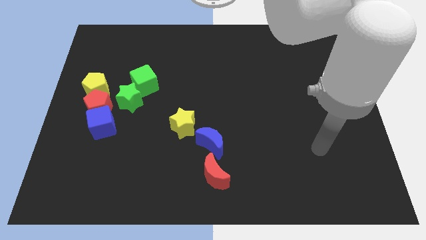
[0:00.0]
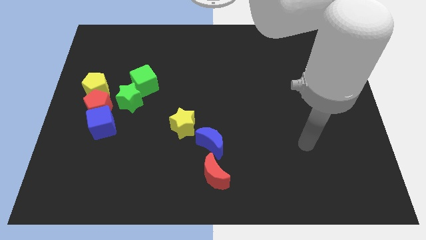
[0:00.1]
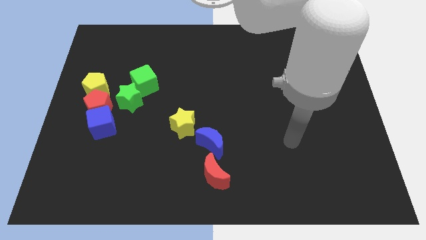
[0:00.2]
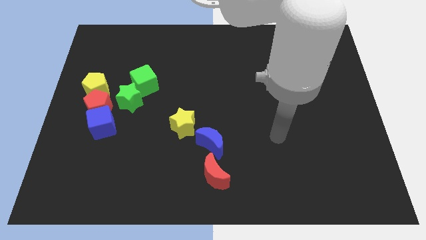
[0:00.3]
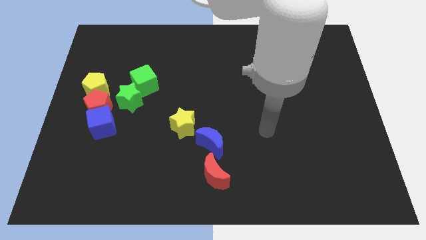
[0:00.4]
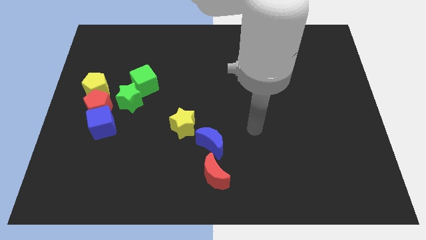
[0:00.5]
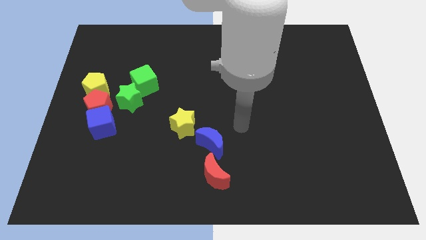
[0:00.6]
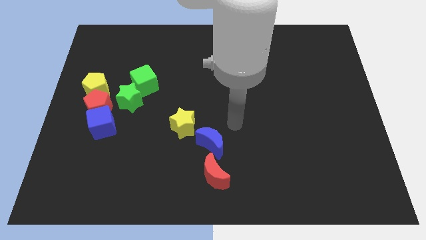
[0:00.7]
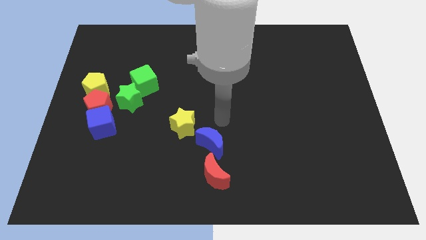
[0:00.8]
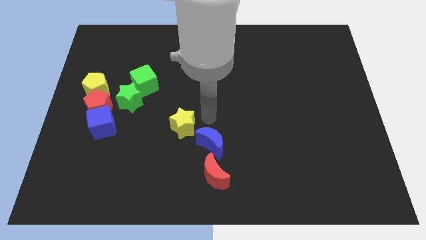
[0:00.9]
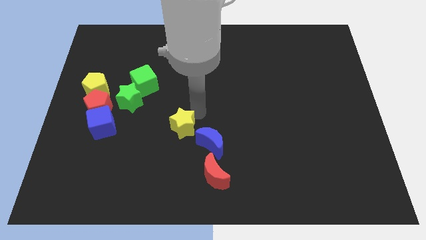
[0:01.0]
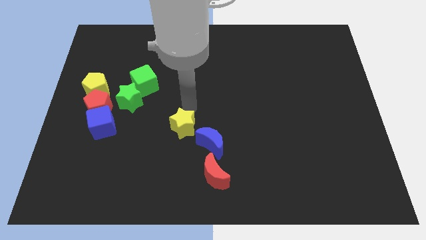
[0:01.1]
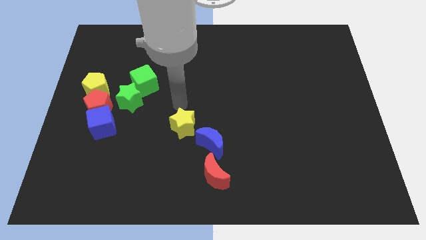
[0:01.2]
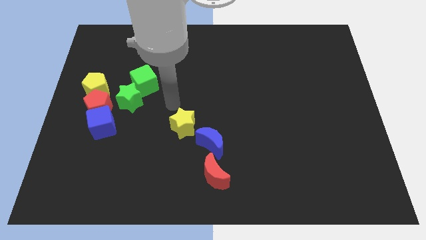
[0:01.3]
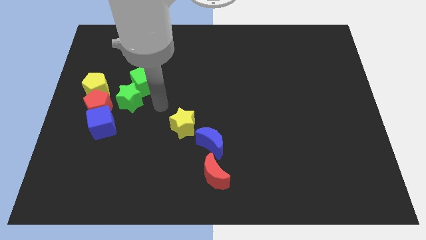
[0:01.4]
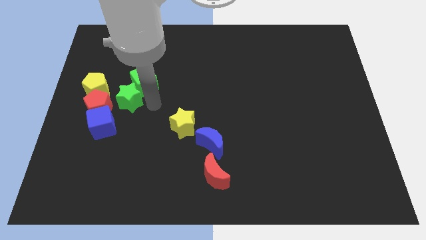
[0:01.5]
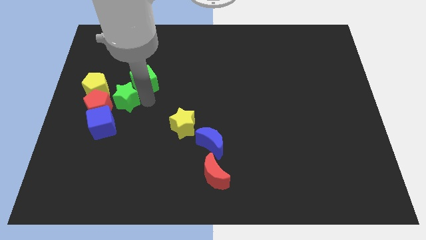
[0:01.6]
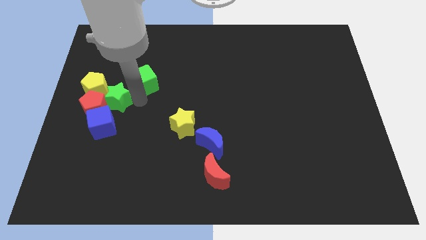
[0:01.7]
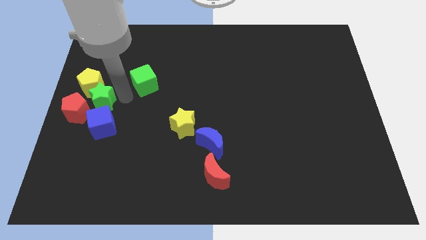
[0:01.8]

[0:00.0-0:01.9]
move the green cube away from the green star

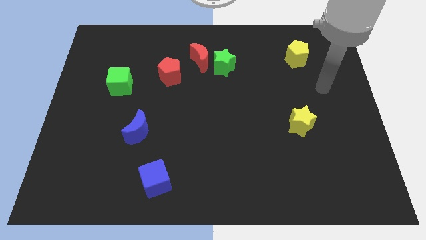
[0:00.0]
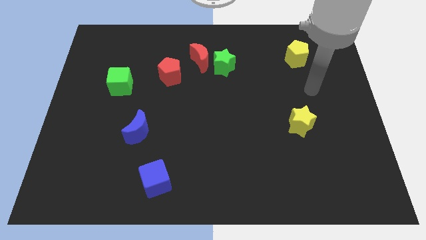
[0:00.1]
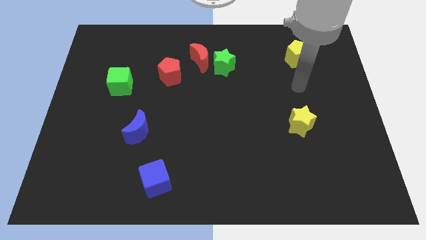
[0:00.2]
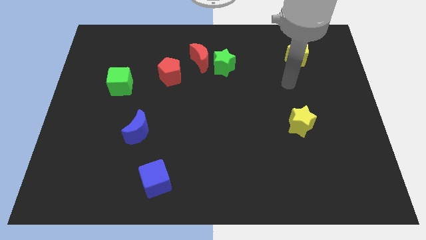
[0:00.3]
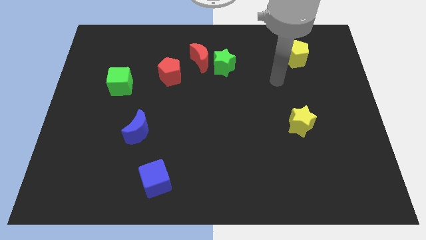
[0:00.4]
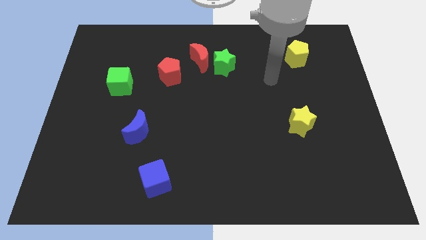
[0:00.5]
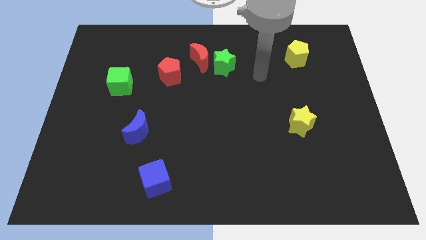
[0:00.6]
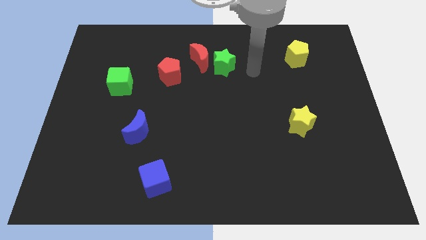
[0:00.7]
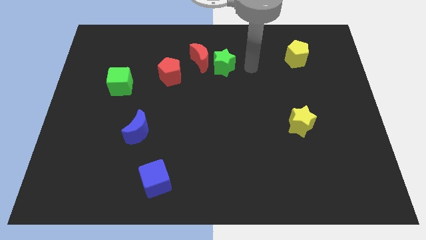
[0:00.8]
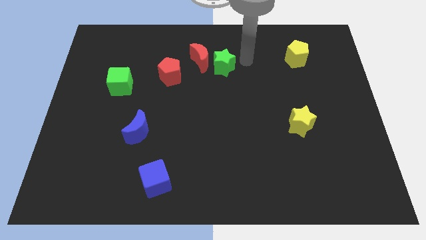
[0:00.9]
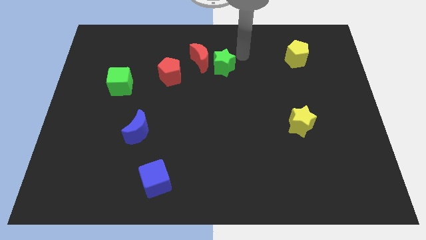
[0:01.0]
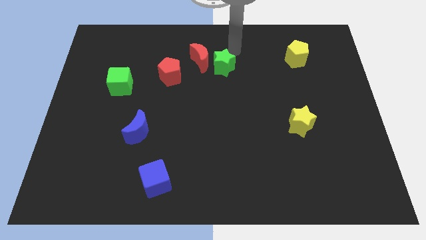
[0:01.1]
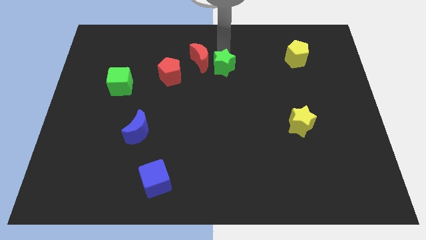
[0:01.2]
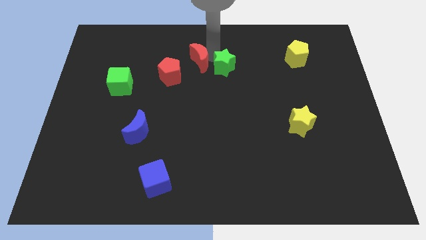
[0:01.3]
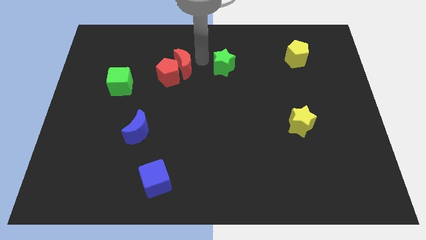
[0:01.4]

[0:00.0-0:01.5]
move the green star away from the red moon

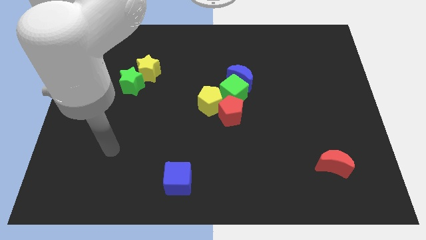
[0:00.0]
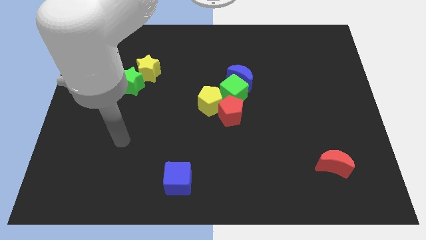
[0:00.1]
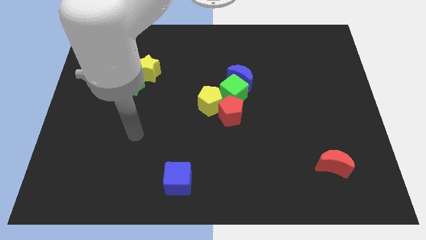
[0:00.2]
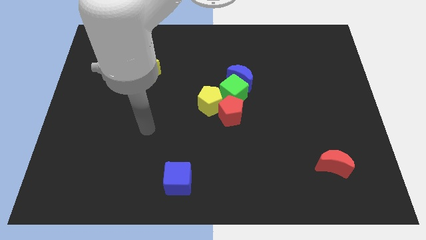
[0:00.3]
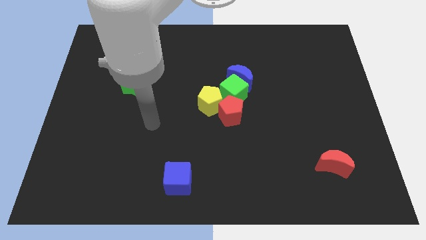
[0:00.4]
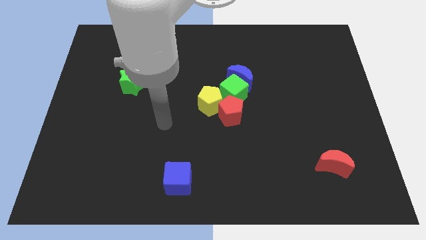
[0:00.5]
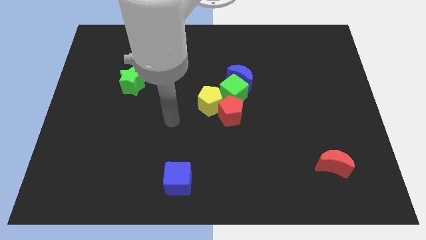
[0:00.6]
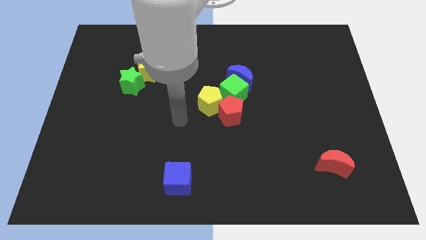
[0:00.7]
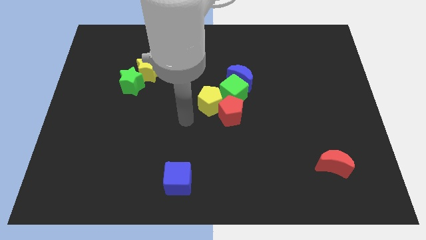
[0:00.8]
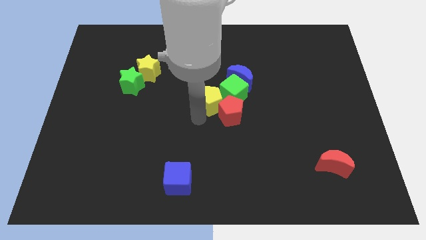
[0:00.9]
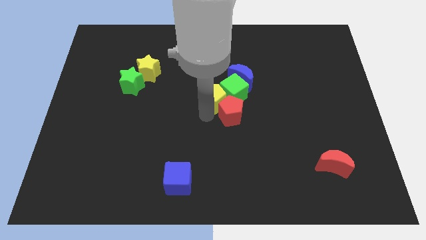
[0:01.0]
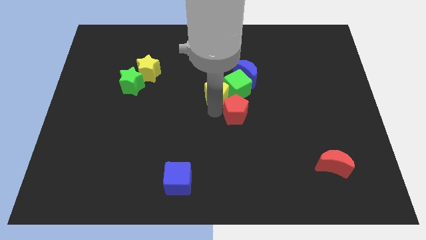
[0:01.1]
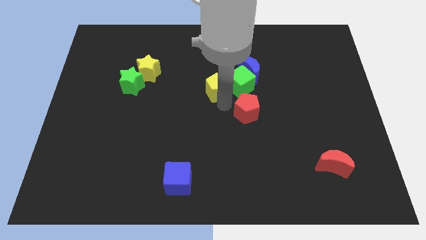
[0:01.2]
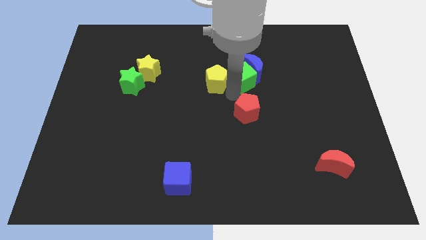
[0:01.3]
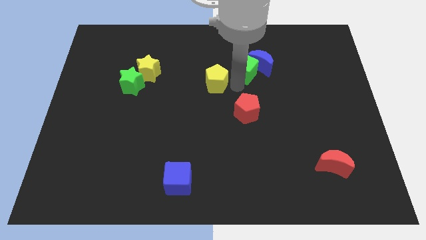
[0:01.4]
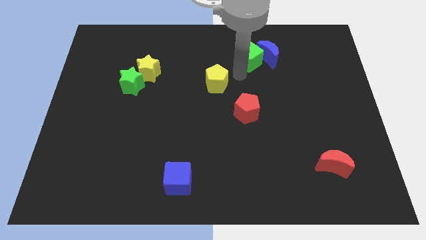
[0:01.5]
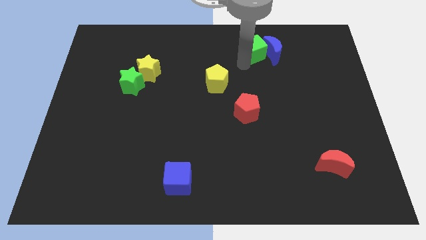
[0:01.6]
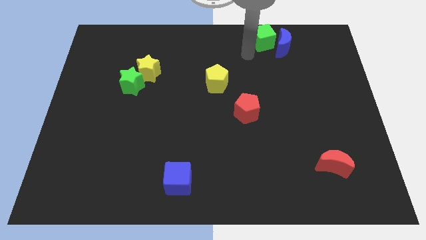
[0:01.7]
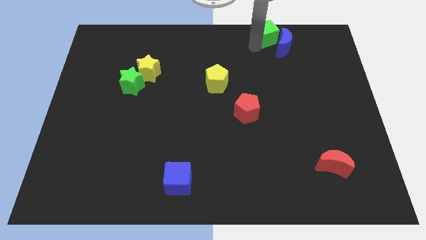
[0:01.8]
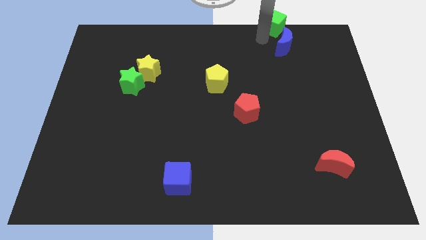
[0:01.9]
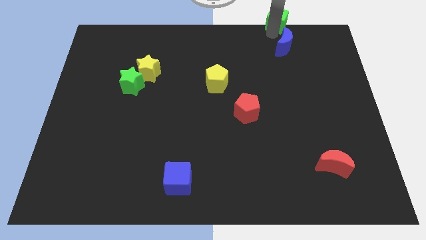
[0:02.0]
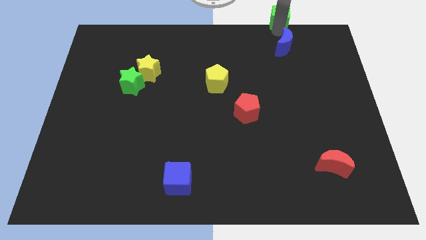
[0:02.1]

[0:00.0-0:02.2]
move the blue moon away from the green cube

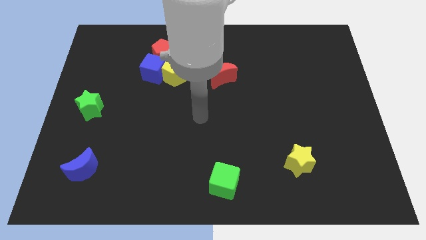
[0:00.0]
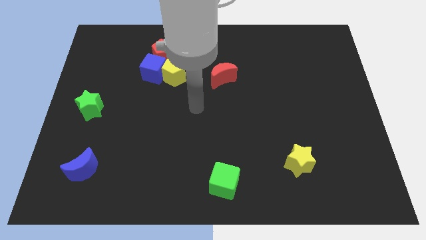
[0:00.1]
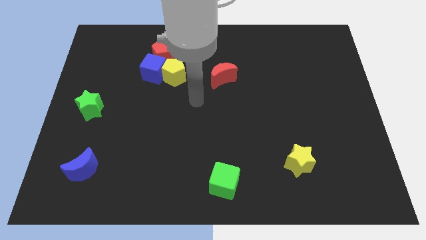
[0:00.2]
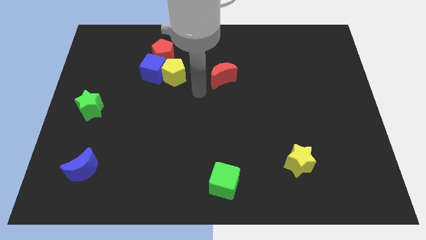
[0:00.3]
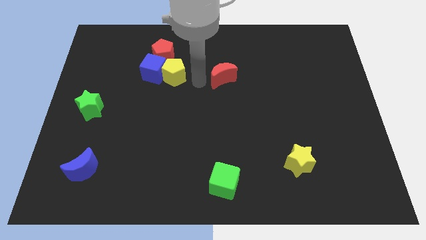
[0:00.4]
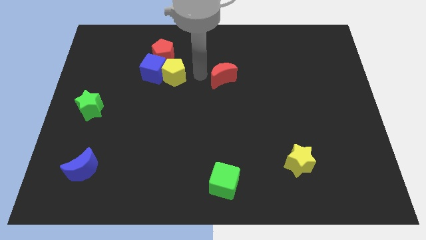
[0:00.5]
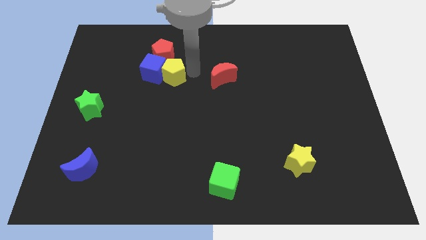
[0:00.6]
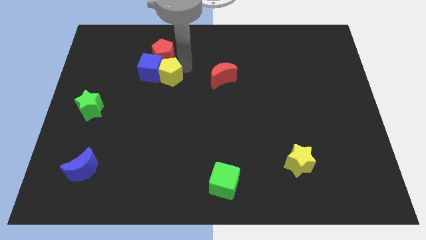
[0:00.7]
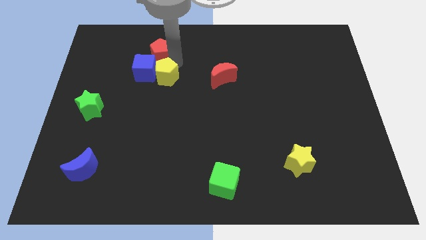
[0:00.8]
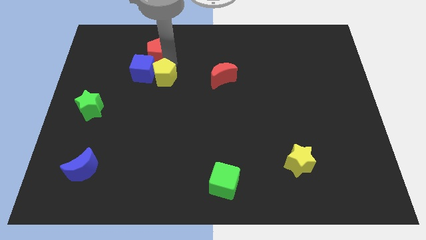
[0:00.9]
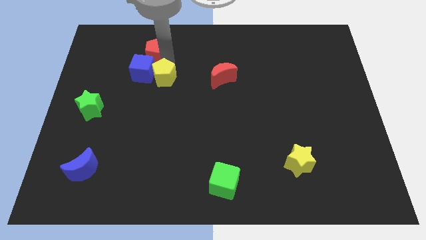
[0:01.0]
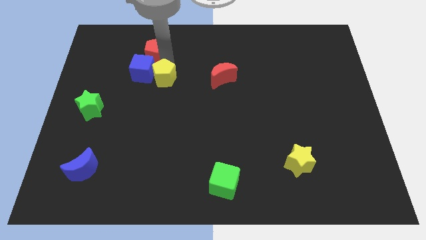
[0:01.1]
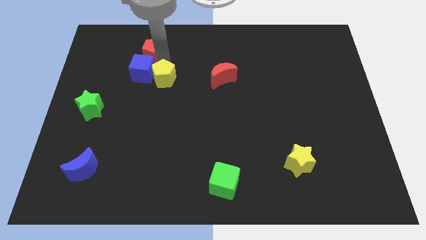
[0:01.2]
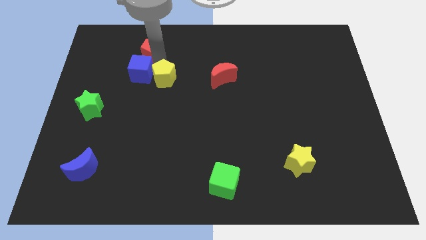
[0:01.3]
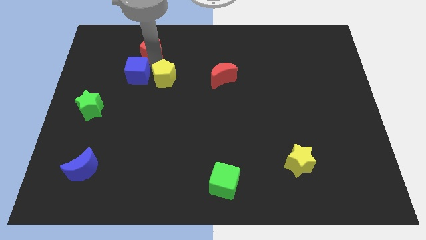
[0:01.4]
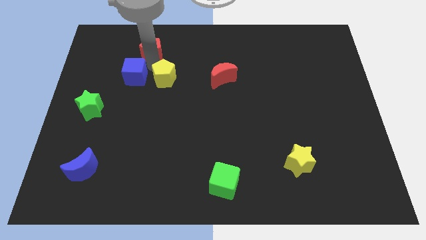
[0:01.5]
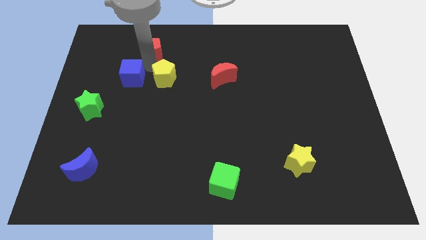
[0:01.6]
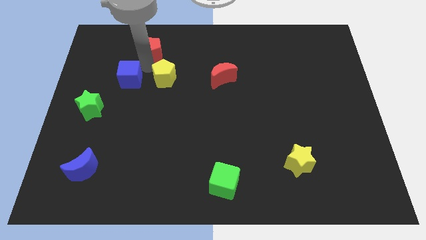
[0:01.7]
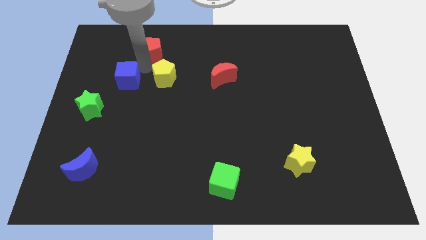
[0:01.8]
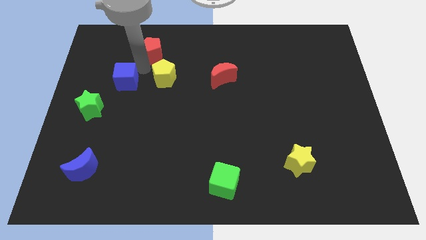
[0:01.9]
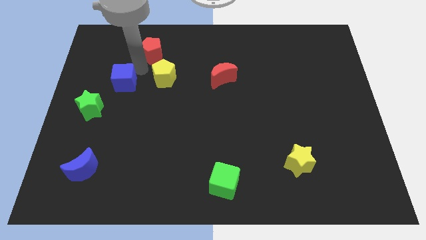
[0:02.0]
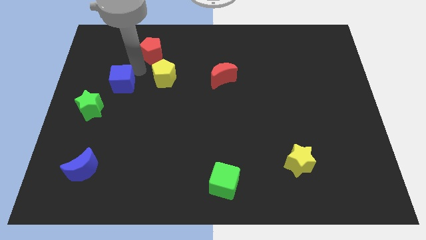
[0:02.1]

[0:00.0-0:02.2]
move the blue cube away from the yellow pentagon and red pentagon

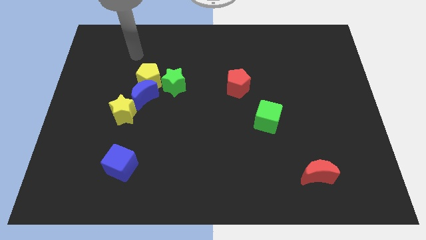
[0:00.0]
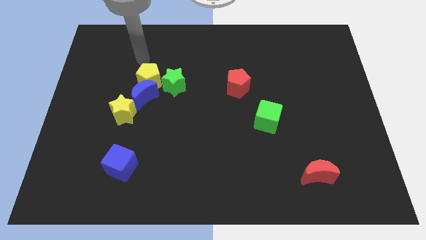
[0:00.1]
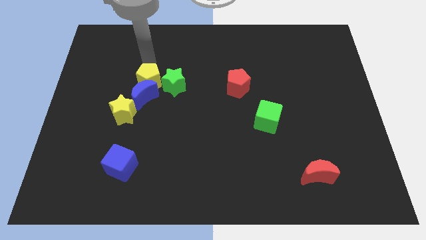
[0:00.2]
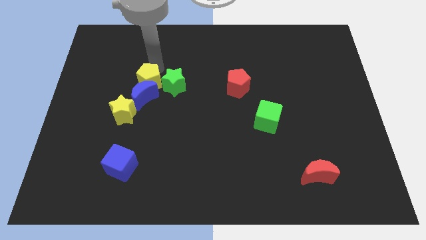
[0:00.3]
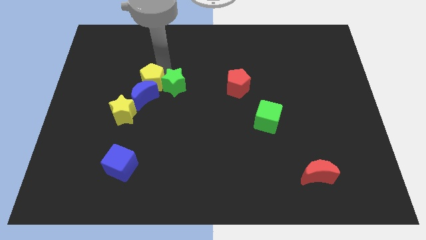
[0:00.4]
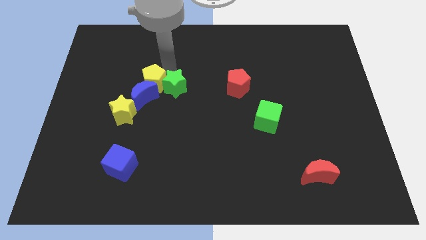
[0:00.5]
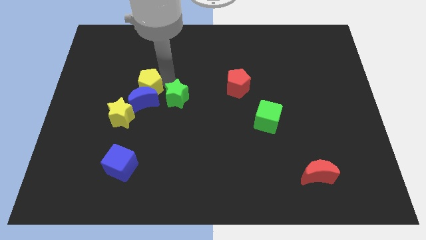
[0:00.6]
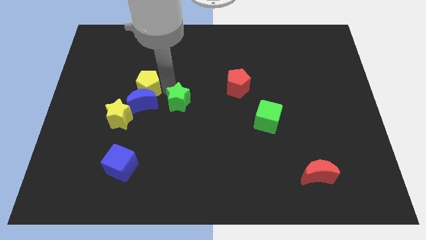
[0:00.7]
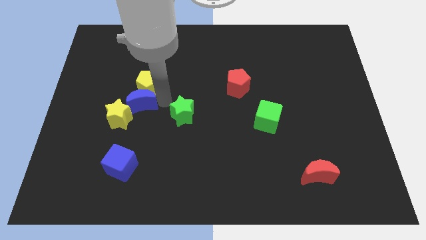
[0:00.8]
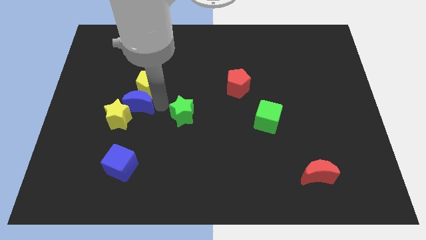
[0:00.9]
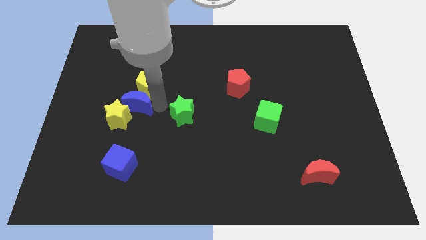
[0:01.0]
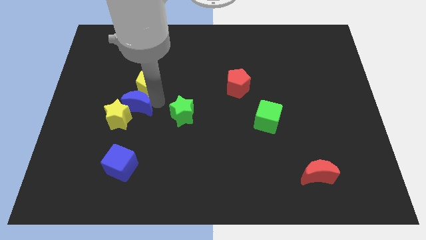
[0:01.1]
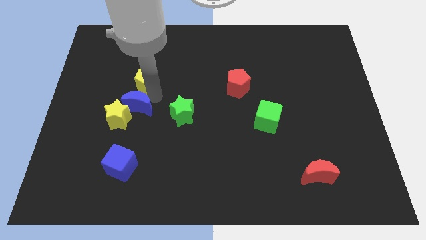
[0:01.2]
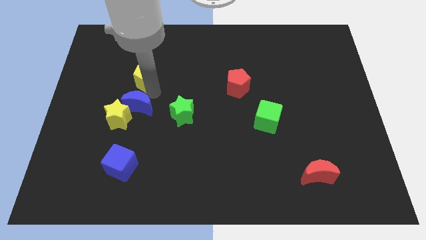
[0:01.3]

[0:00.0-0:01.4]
move the yellow pentagon away from the blue moon and green star

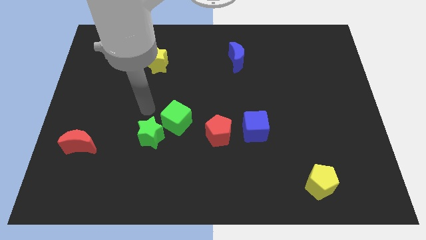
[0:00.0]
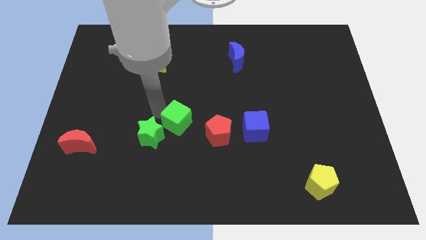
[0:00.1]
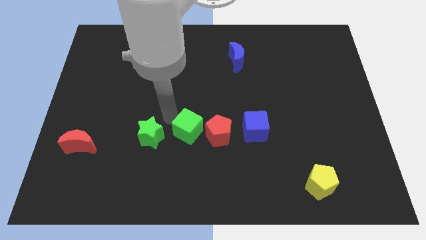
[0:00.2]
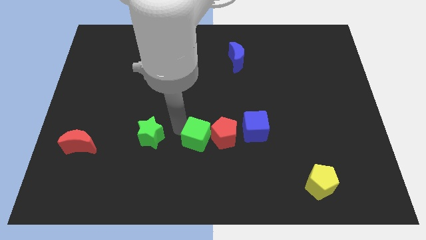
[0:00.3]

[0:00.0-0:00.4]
pull the green star apart from the green cube
